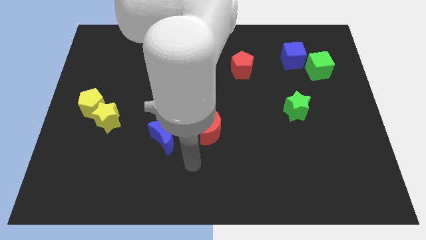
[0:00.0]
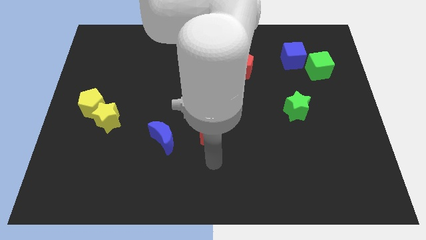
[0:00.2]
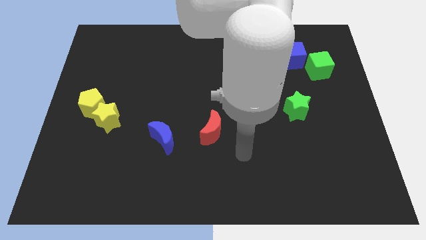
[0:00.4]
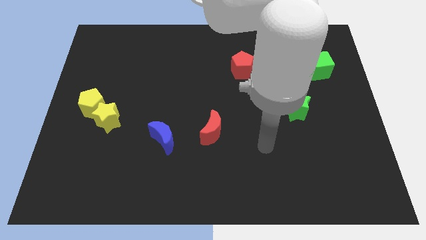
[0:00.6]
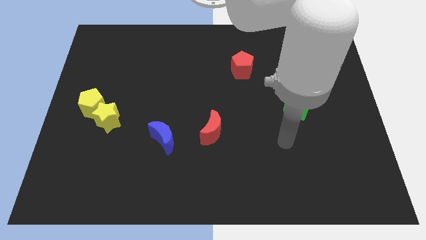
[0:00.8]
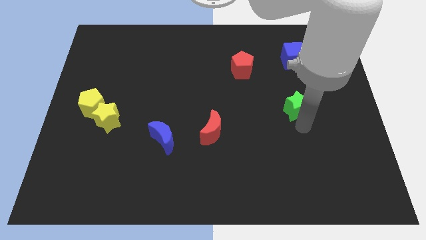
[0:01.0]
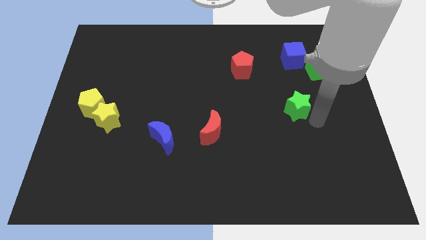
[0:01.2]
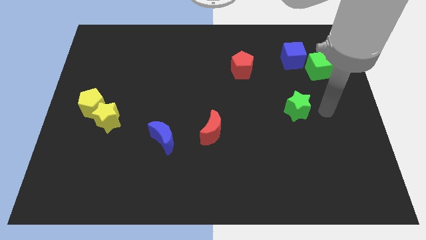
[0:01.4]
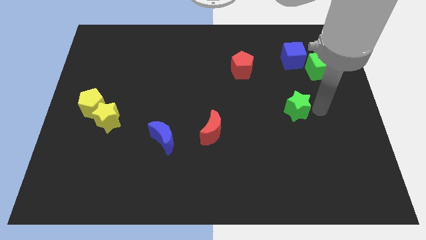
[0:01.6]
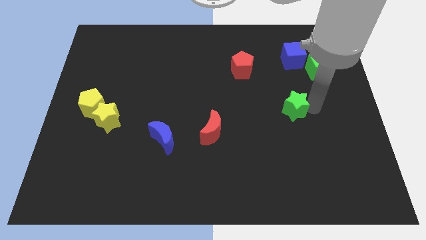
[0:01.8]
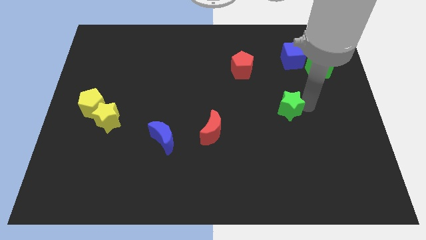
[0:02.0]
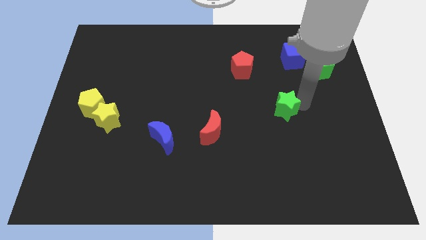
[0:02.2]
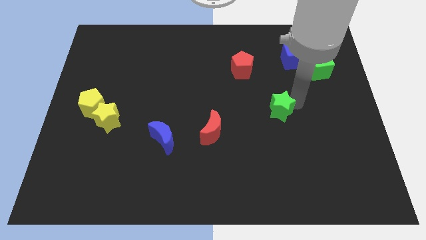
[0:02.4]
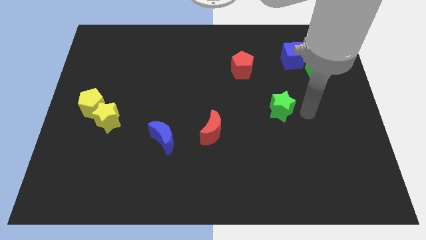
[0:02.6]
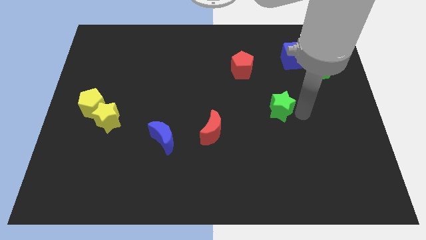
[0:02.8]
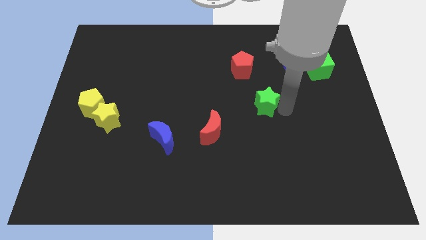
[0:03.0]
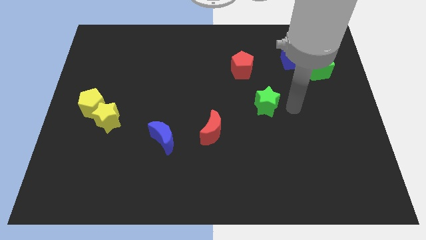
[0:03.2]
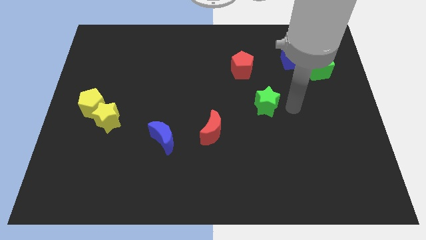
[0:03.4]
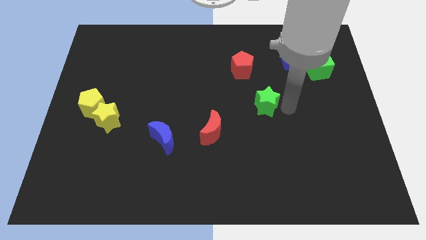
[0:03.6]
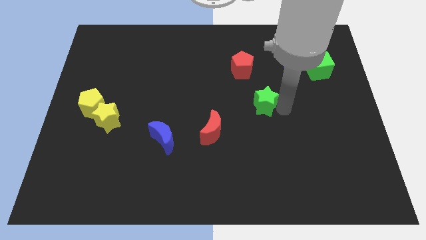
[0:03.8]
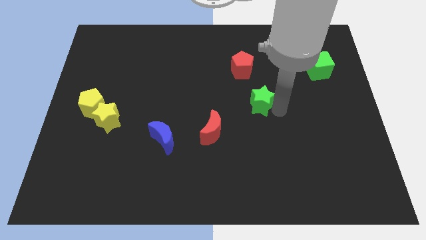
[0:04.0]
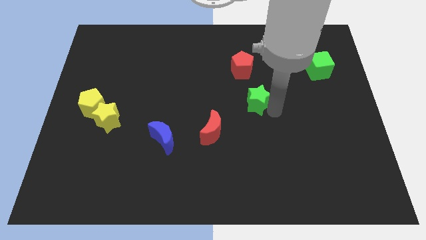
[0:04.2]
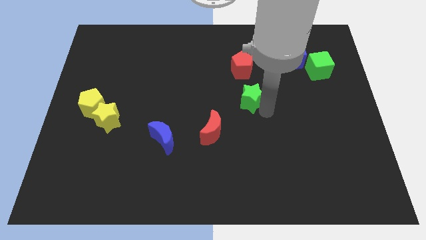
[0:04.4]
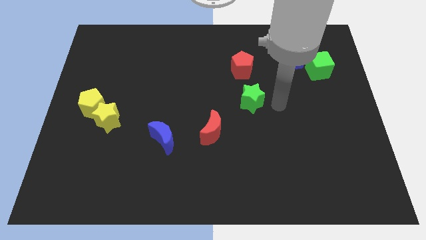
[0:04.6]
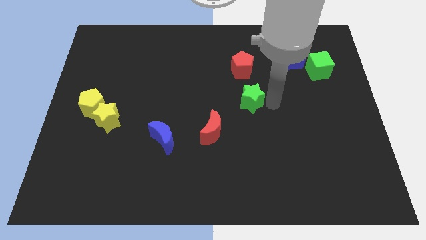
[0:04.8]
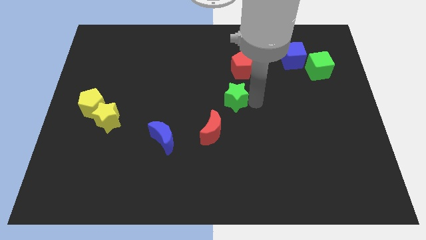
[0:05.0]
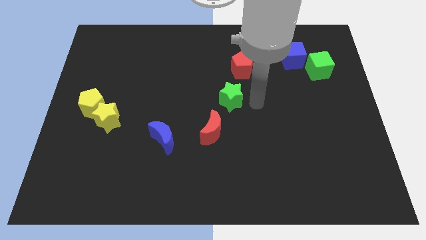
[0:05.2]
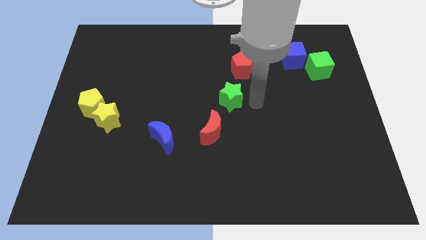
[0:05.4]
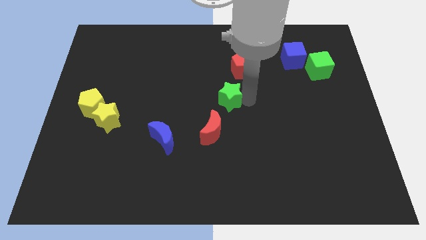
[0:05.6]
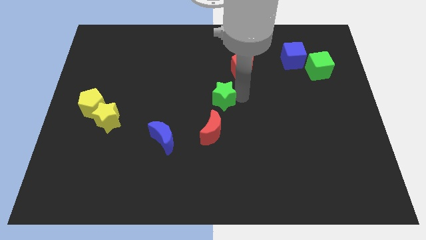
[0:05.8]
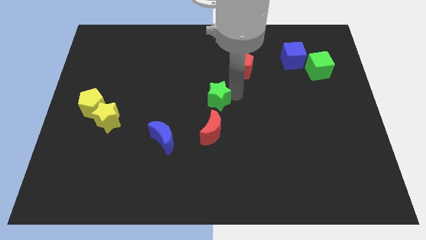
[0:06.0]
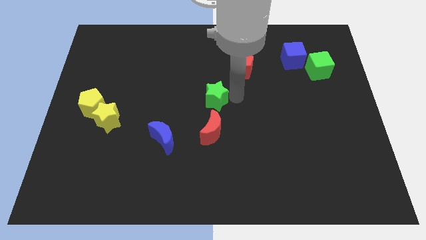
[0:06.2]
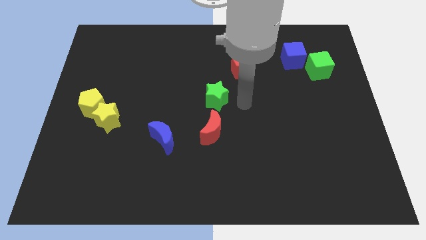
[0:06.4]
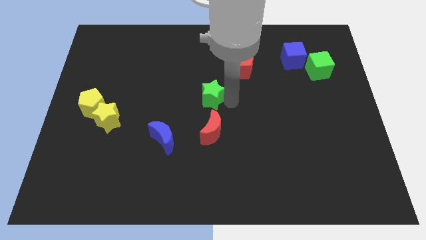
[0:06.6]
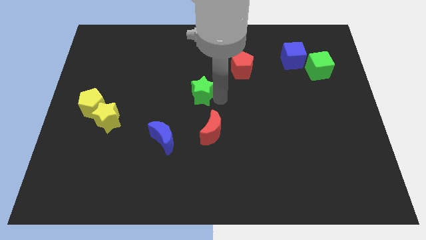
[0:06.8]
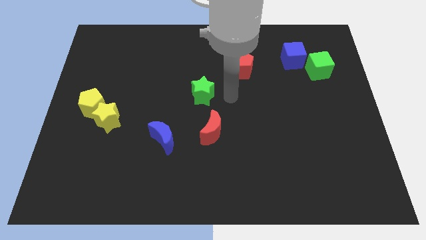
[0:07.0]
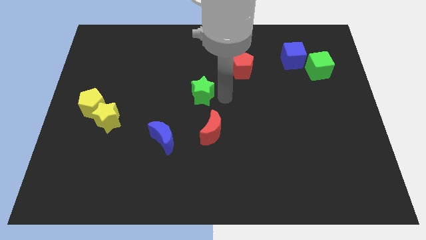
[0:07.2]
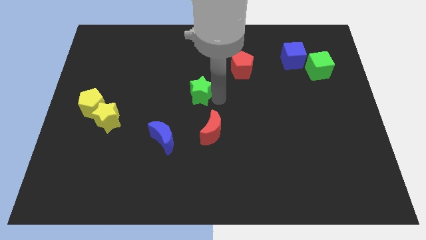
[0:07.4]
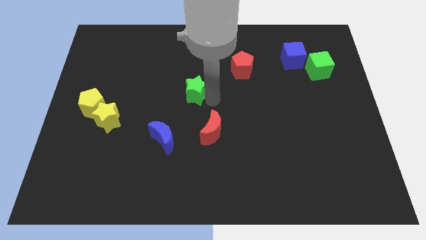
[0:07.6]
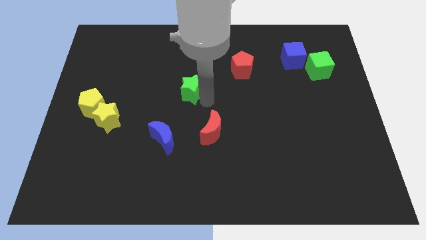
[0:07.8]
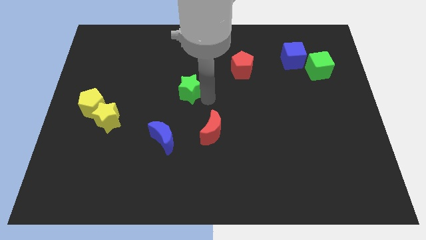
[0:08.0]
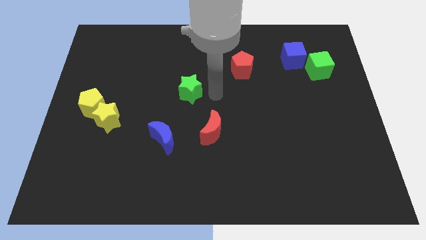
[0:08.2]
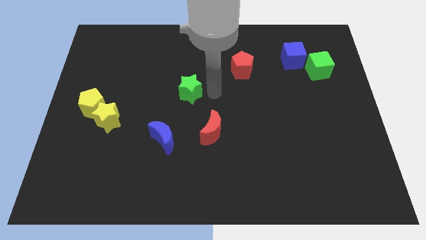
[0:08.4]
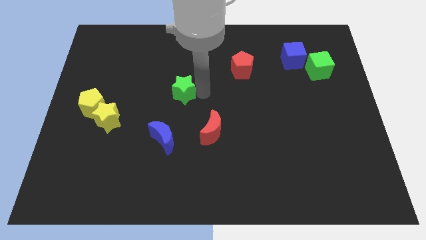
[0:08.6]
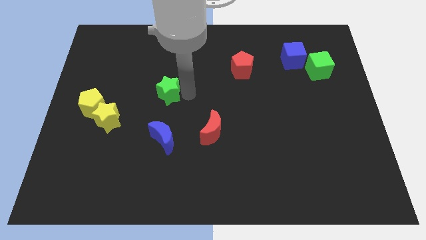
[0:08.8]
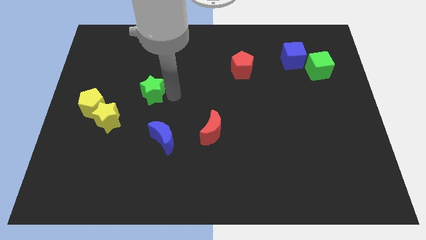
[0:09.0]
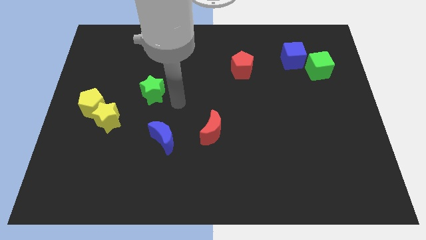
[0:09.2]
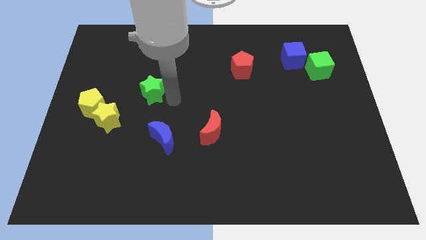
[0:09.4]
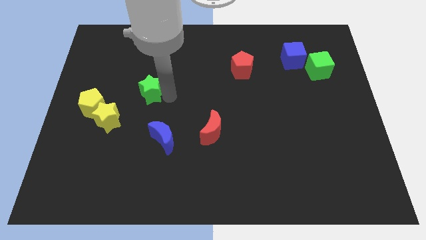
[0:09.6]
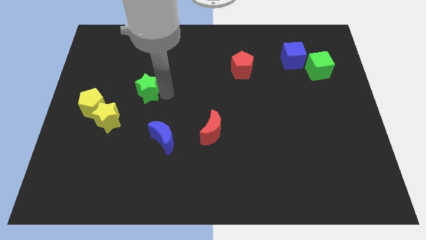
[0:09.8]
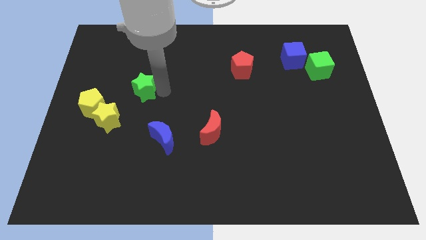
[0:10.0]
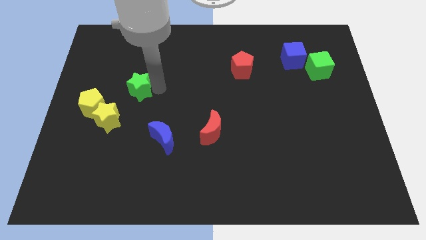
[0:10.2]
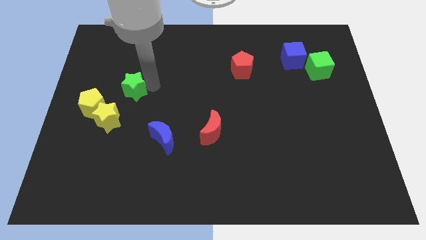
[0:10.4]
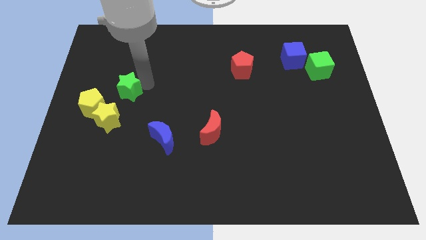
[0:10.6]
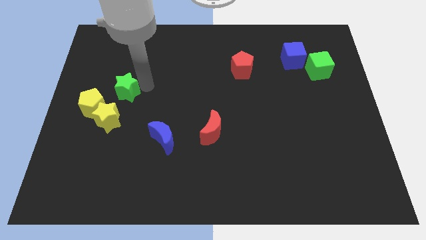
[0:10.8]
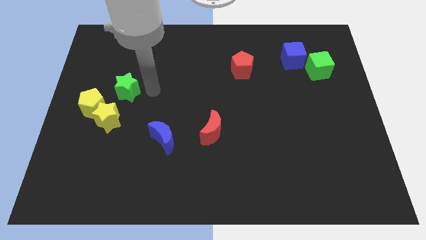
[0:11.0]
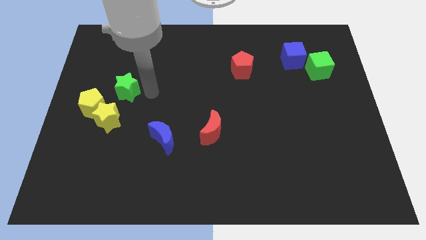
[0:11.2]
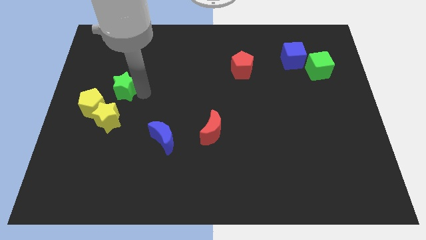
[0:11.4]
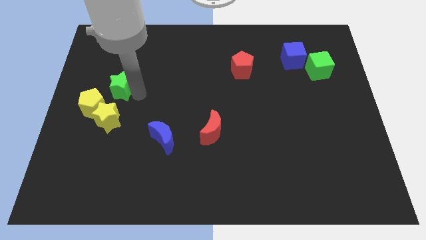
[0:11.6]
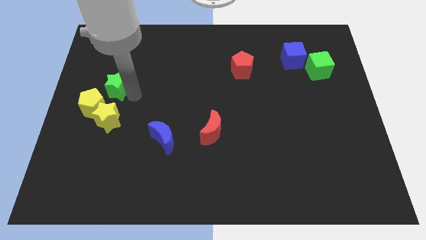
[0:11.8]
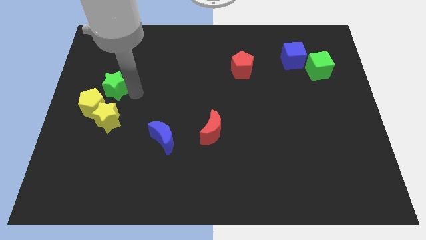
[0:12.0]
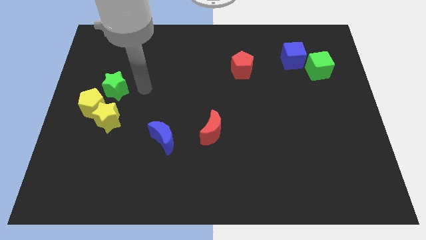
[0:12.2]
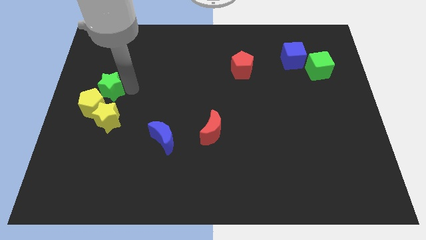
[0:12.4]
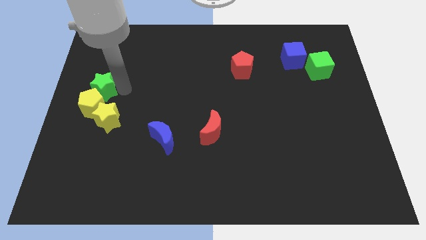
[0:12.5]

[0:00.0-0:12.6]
put the green star to the left side of the board
